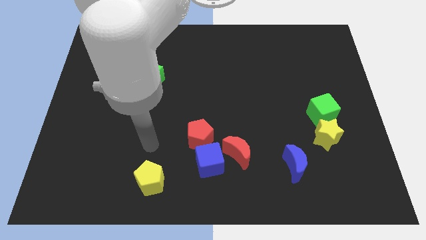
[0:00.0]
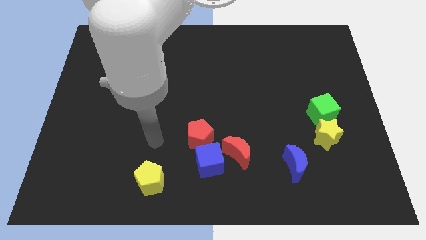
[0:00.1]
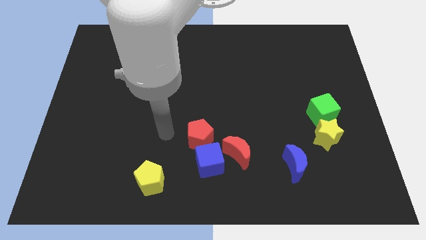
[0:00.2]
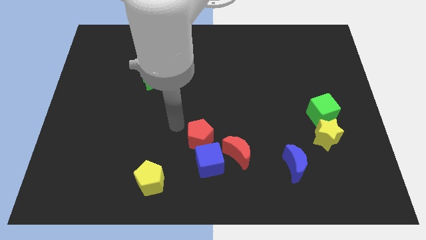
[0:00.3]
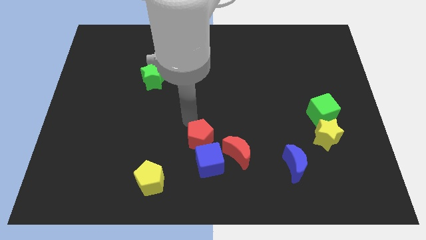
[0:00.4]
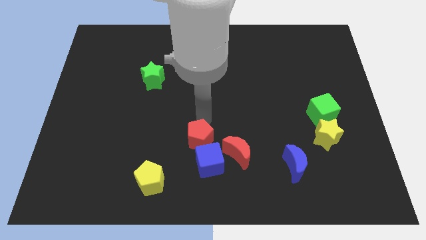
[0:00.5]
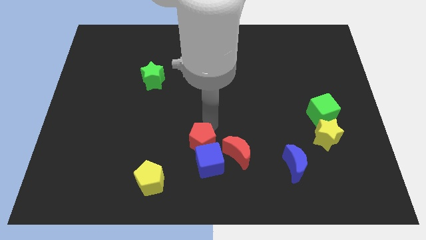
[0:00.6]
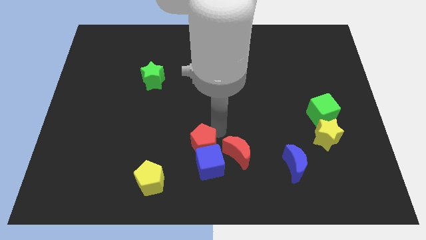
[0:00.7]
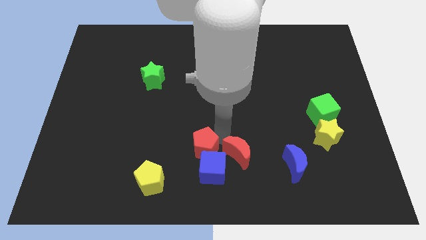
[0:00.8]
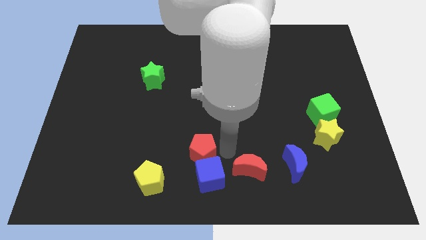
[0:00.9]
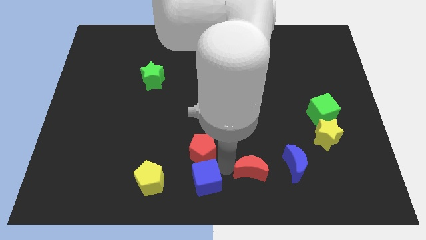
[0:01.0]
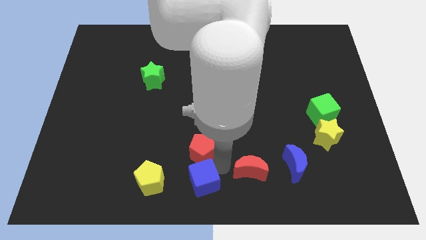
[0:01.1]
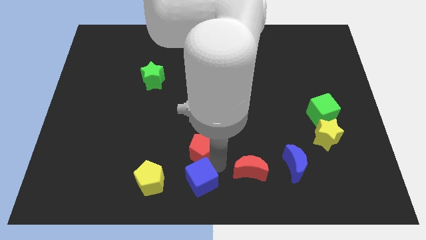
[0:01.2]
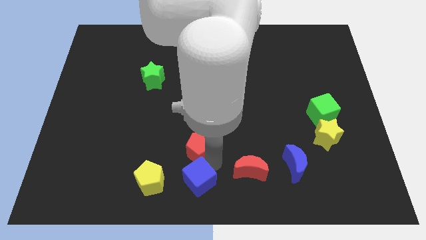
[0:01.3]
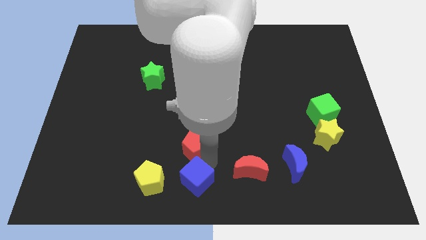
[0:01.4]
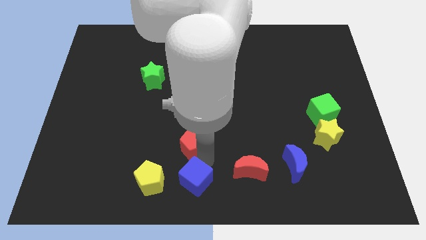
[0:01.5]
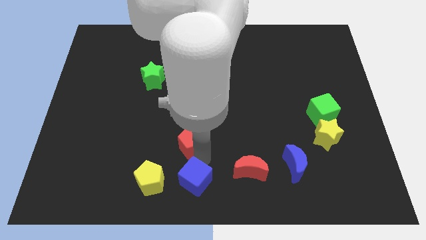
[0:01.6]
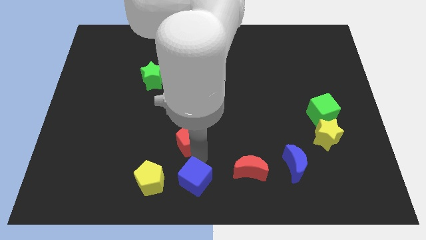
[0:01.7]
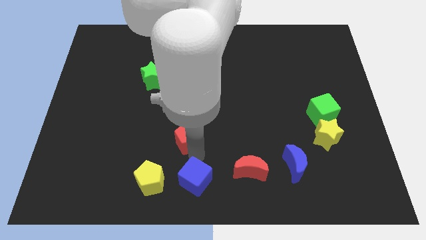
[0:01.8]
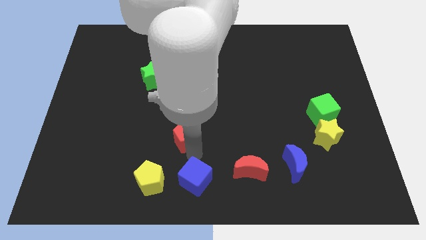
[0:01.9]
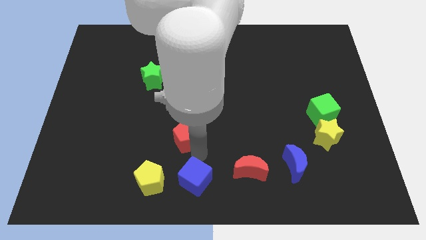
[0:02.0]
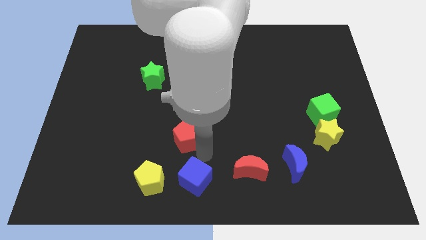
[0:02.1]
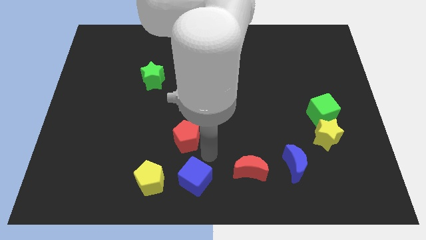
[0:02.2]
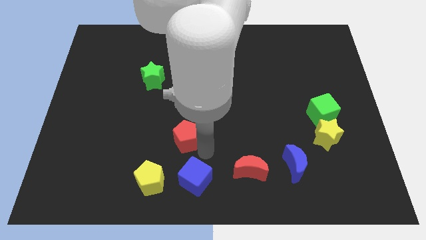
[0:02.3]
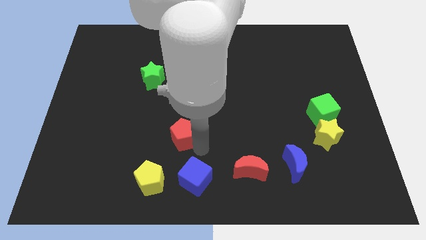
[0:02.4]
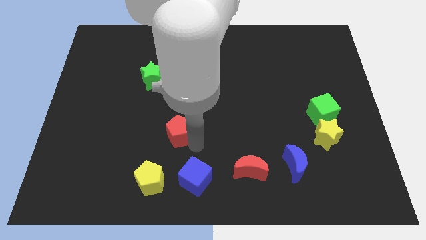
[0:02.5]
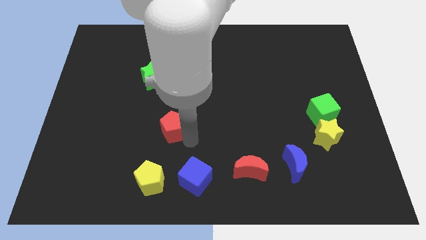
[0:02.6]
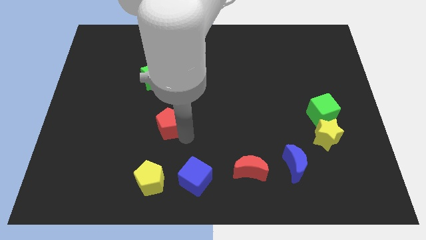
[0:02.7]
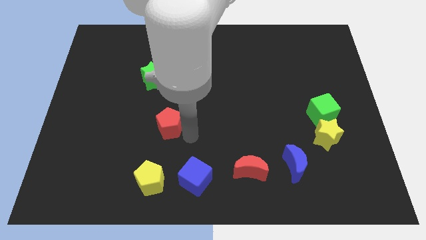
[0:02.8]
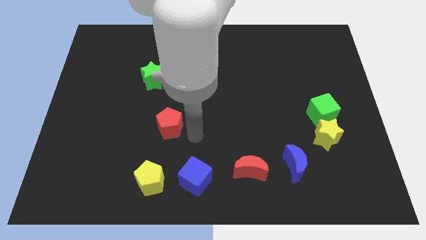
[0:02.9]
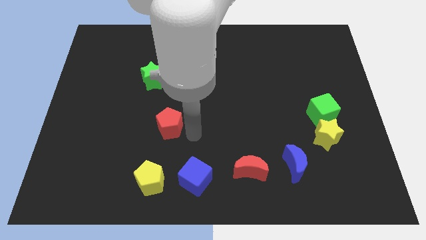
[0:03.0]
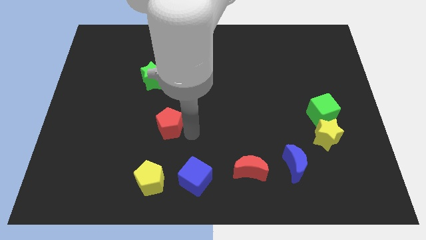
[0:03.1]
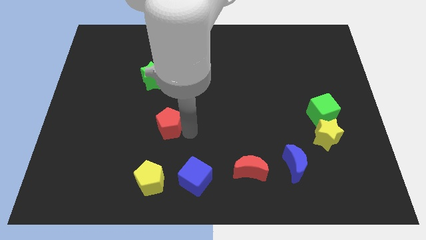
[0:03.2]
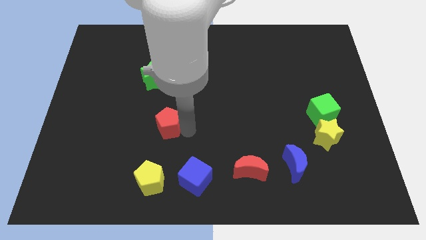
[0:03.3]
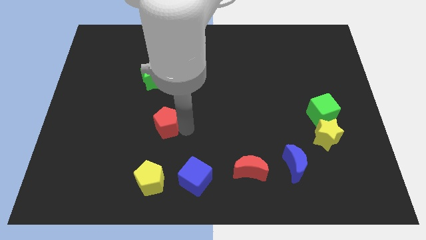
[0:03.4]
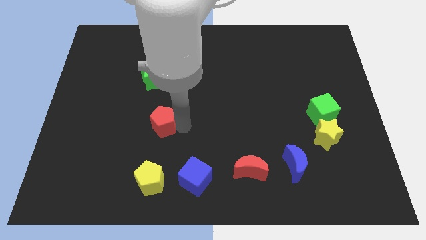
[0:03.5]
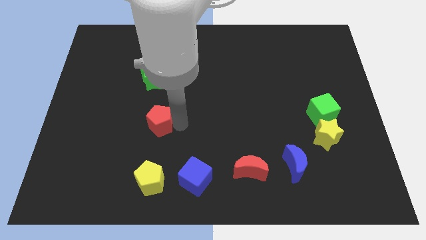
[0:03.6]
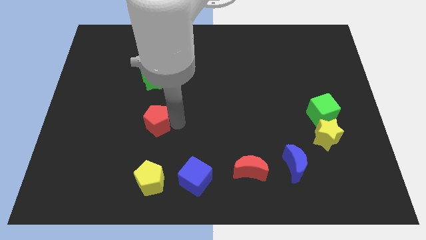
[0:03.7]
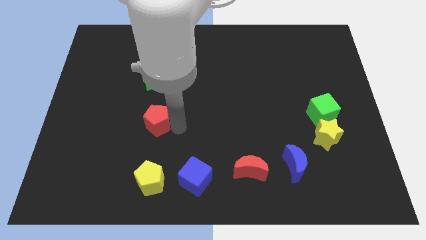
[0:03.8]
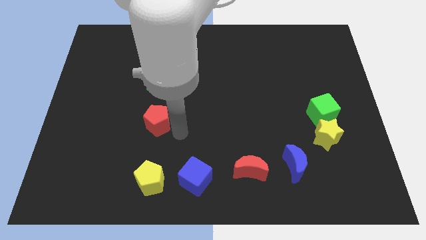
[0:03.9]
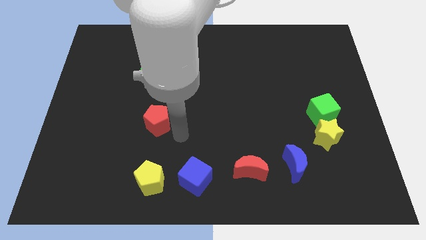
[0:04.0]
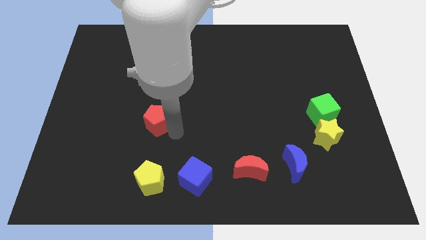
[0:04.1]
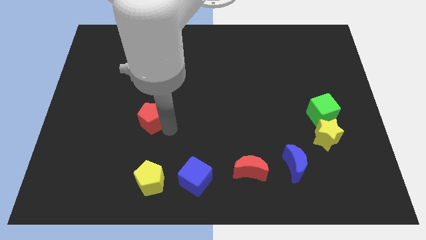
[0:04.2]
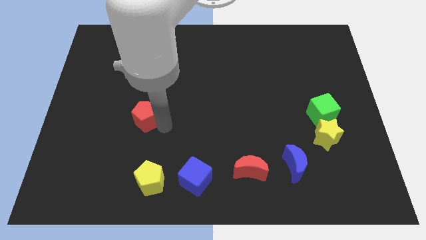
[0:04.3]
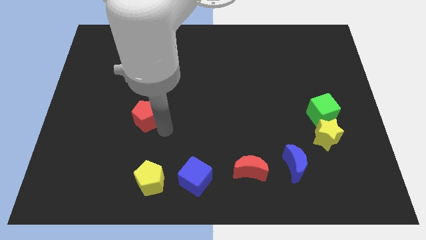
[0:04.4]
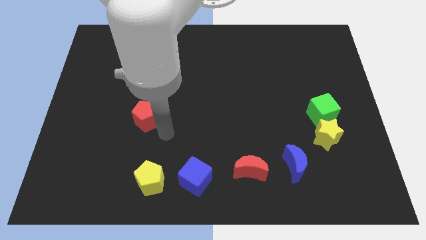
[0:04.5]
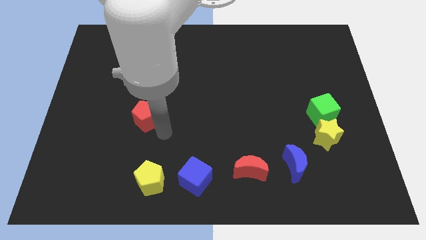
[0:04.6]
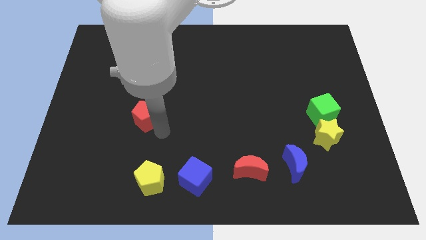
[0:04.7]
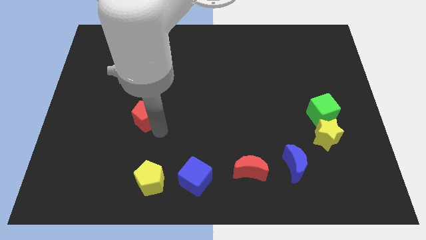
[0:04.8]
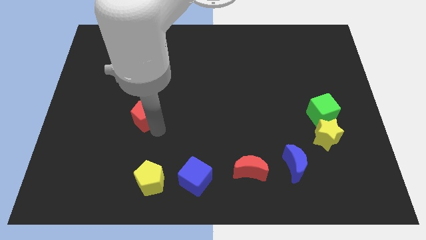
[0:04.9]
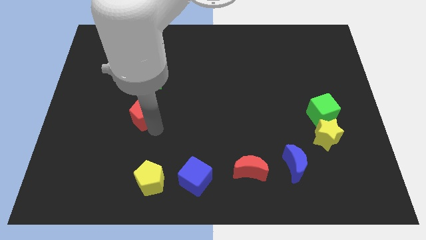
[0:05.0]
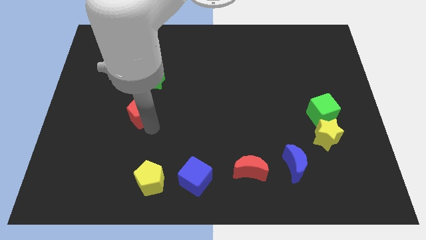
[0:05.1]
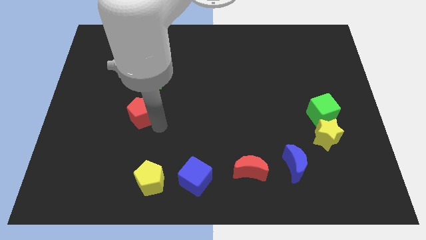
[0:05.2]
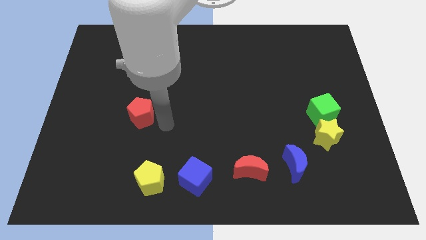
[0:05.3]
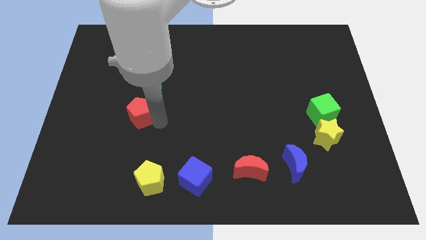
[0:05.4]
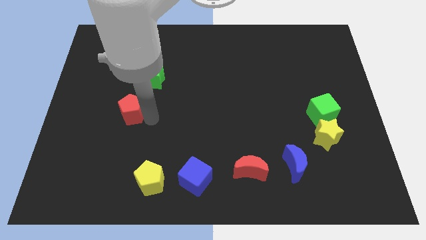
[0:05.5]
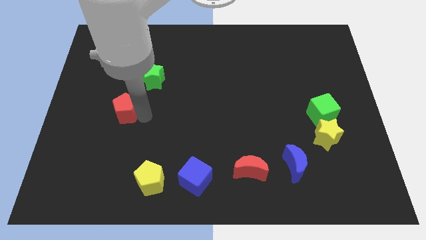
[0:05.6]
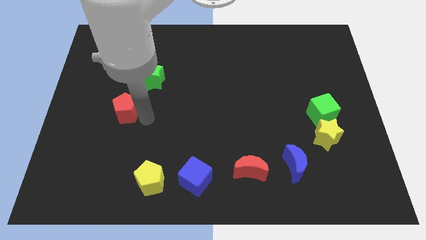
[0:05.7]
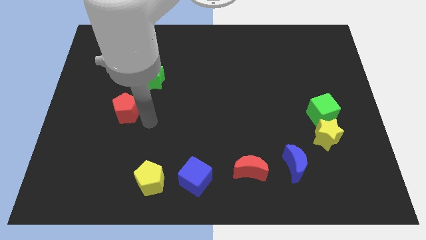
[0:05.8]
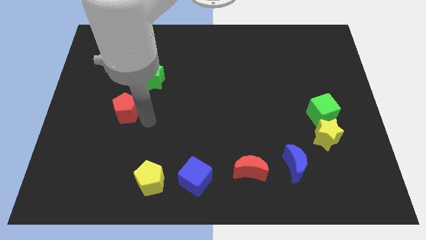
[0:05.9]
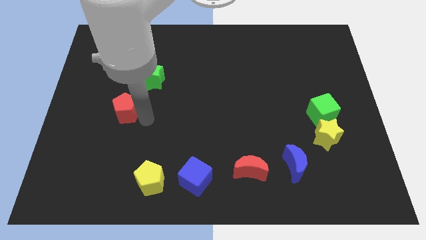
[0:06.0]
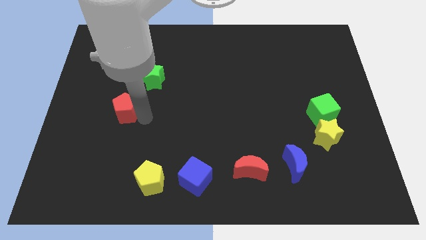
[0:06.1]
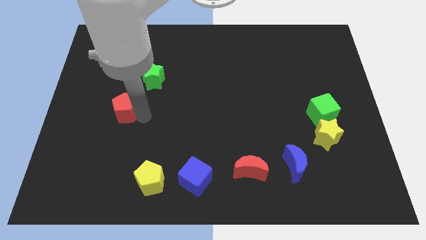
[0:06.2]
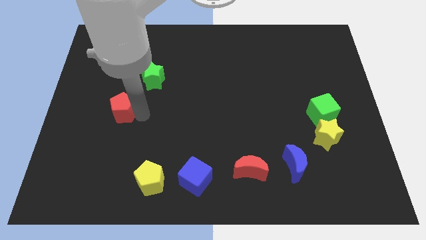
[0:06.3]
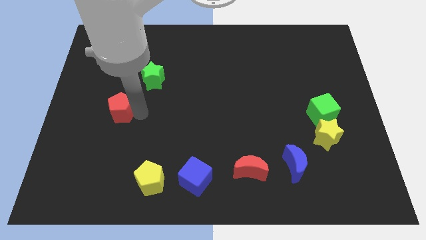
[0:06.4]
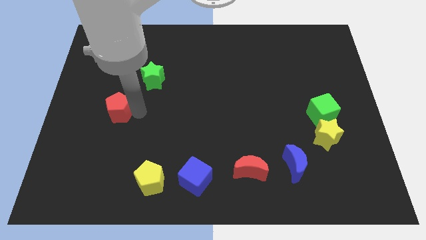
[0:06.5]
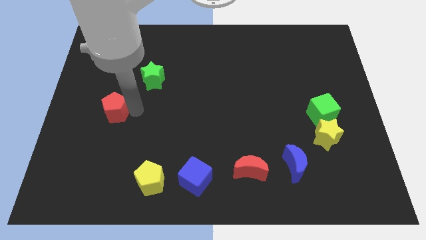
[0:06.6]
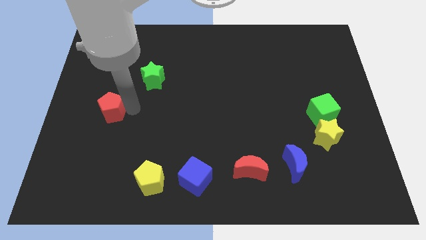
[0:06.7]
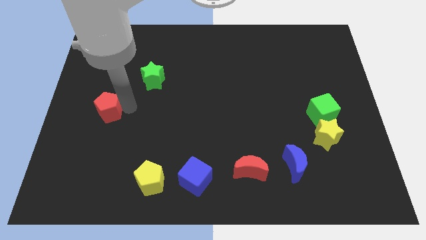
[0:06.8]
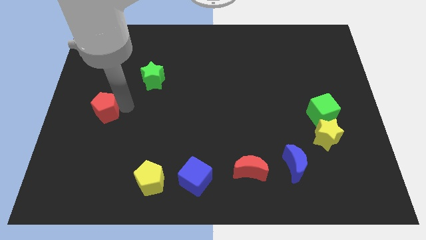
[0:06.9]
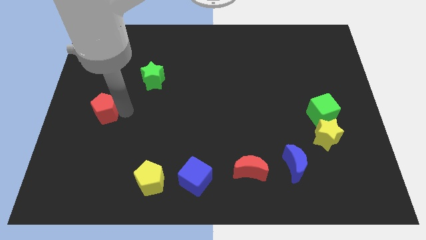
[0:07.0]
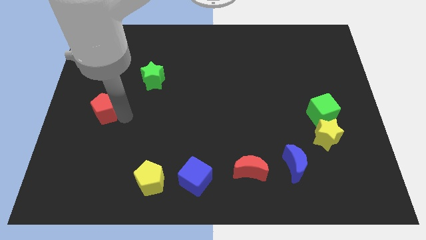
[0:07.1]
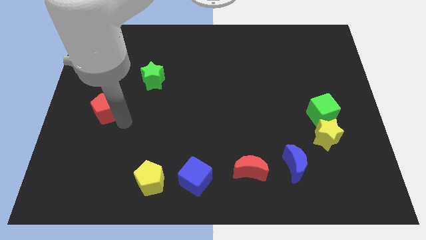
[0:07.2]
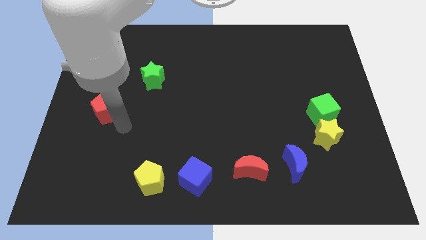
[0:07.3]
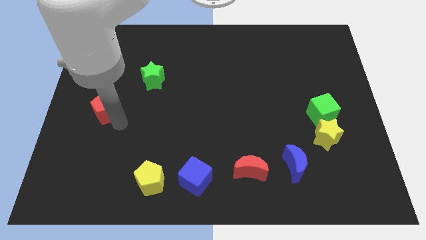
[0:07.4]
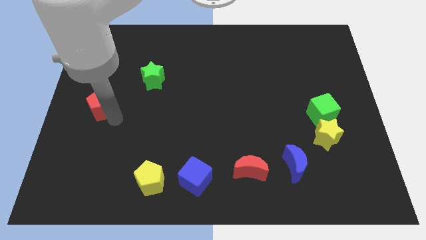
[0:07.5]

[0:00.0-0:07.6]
put the red pentagon to the left side of the board
